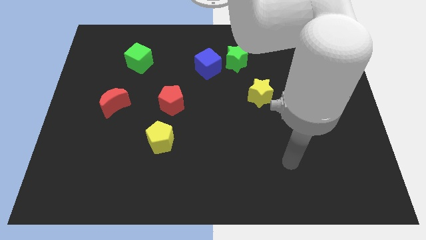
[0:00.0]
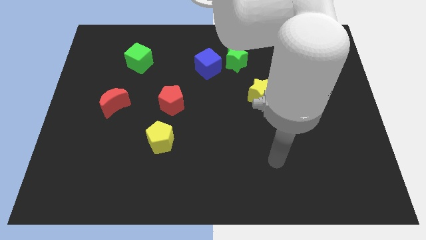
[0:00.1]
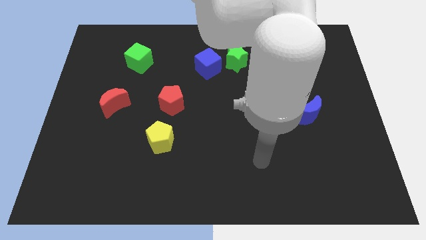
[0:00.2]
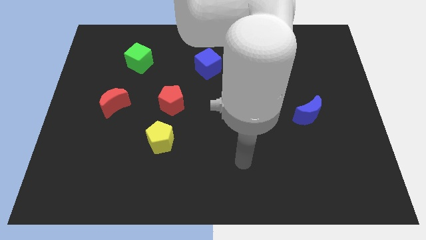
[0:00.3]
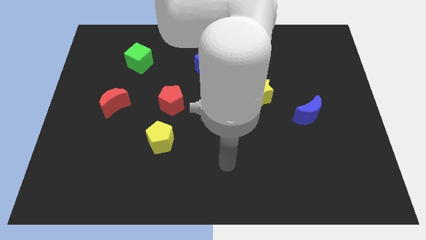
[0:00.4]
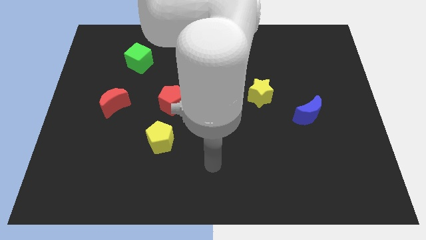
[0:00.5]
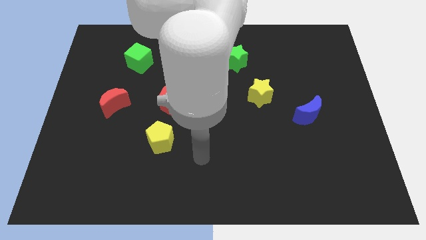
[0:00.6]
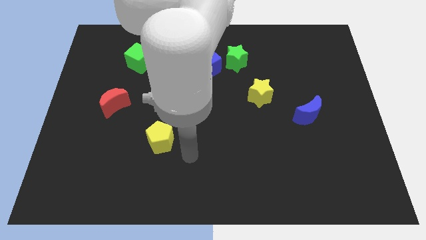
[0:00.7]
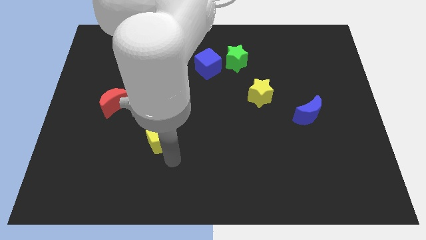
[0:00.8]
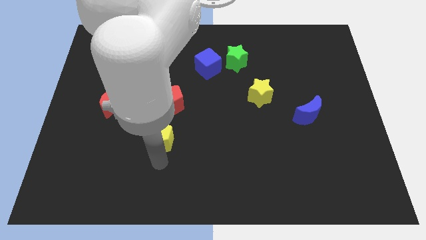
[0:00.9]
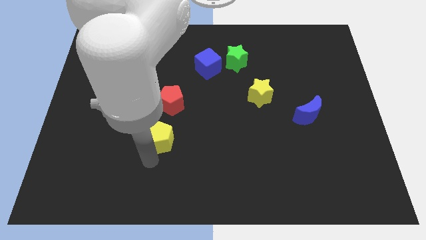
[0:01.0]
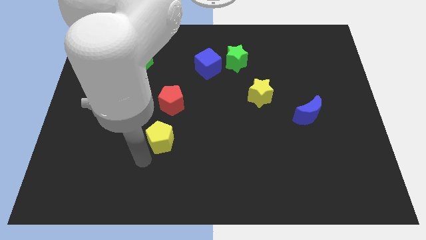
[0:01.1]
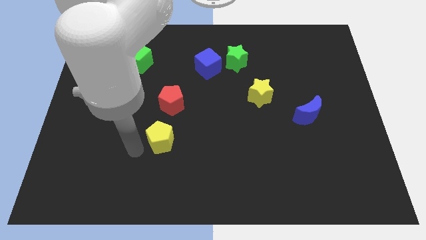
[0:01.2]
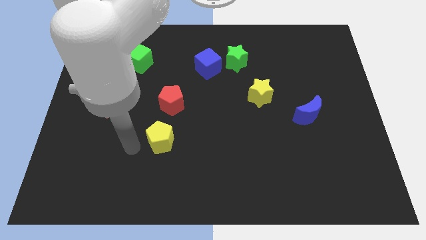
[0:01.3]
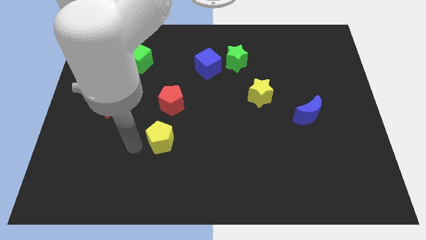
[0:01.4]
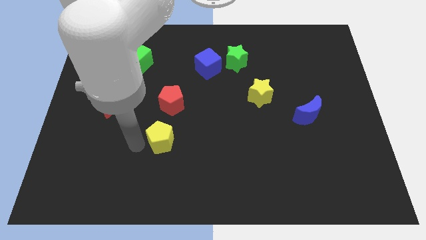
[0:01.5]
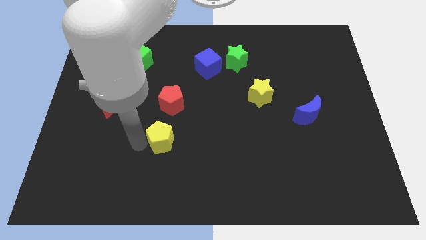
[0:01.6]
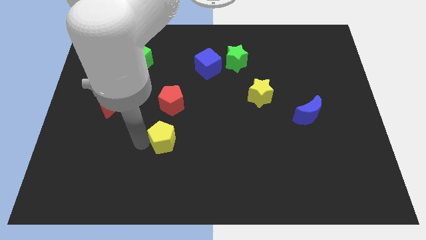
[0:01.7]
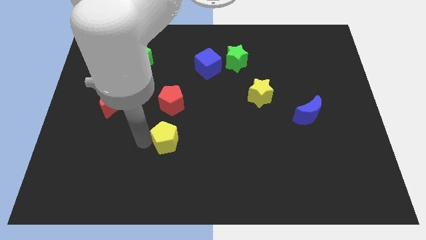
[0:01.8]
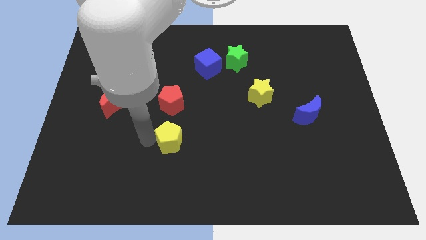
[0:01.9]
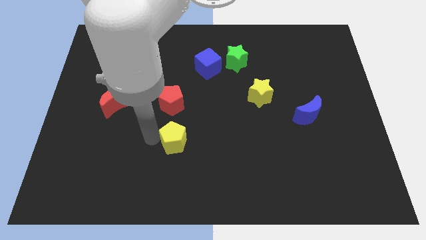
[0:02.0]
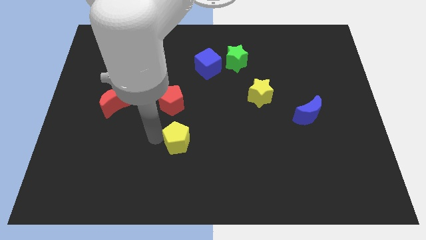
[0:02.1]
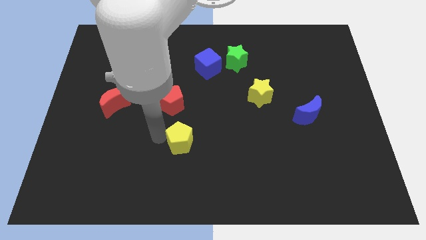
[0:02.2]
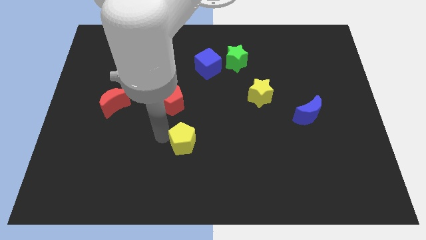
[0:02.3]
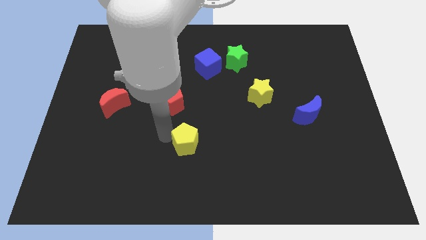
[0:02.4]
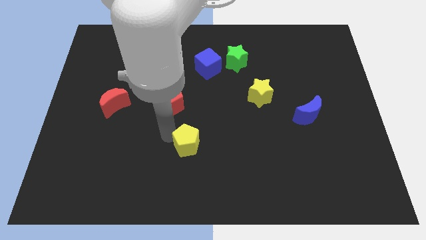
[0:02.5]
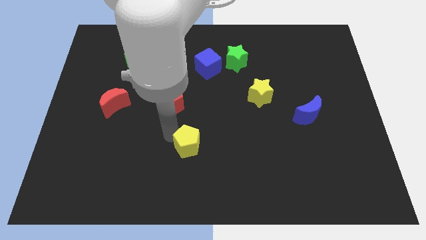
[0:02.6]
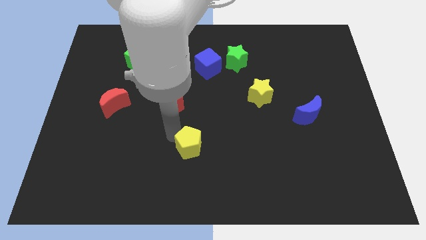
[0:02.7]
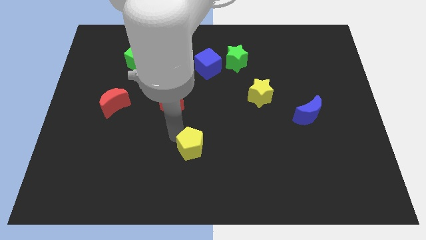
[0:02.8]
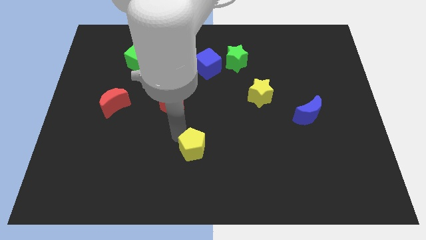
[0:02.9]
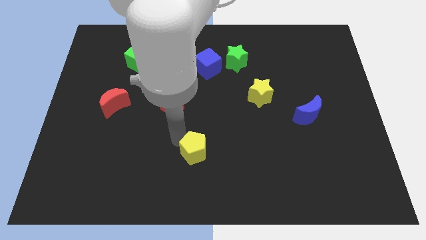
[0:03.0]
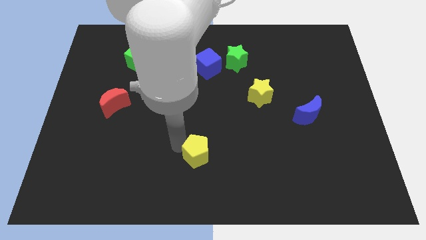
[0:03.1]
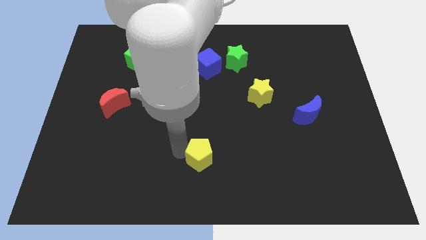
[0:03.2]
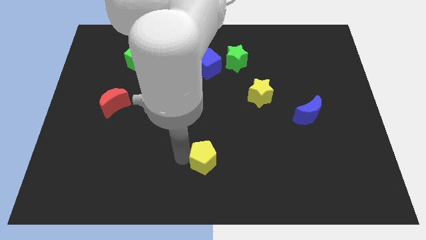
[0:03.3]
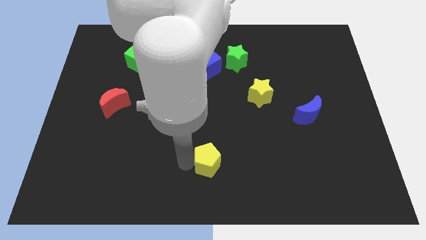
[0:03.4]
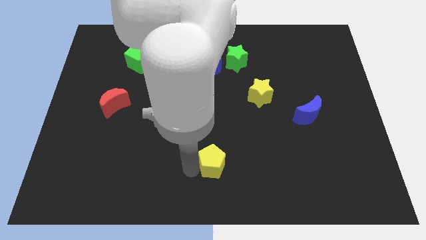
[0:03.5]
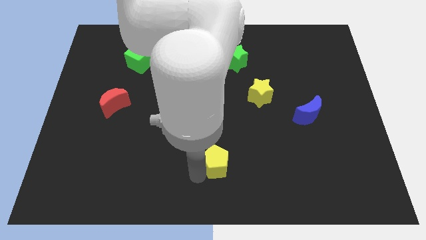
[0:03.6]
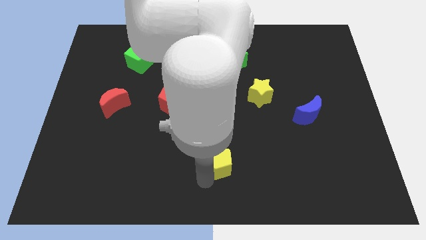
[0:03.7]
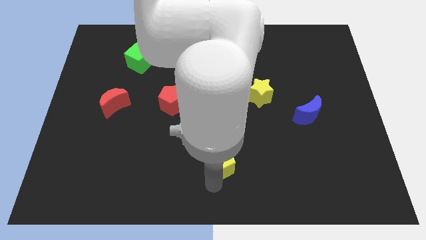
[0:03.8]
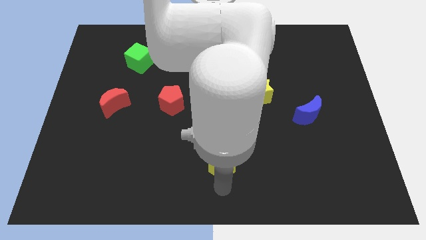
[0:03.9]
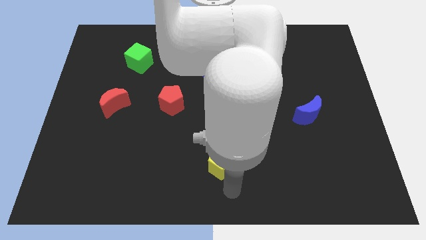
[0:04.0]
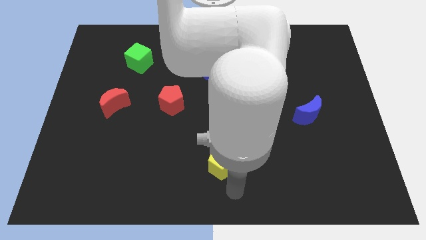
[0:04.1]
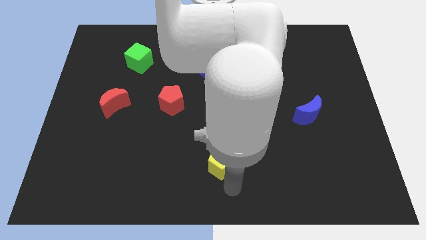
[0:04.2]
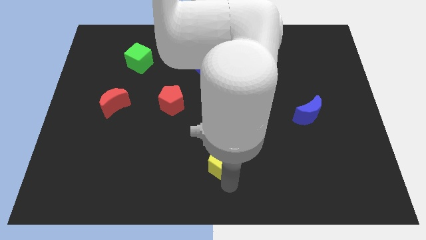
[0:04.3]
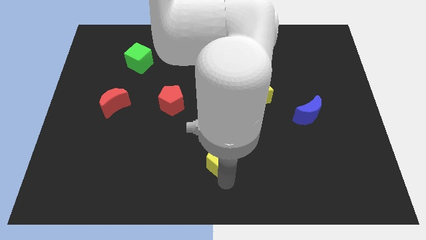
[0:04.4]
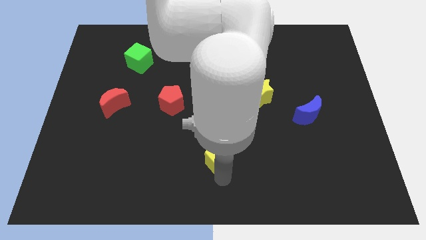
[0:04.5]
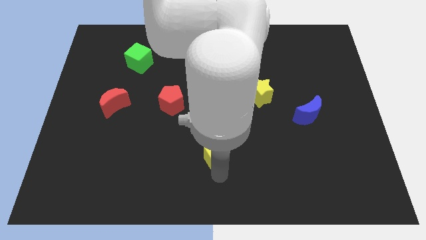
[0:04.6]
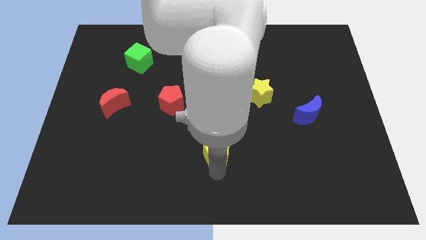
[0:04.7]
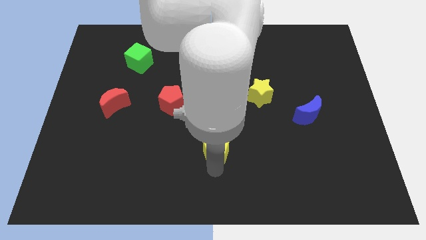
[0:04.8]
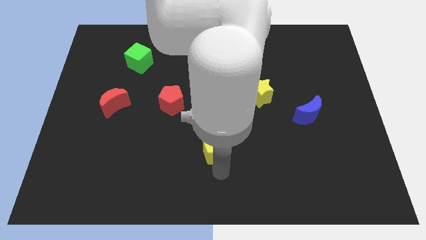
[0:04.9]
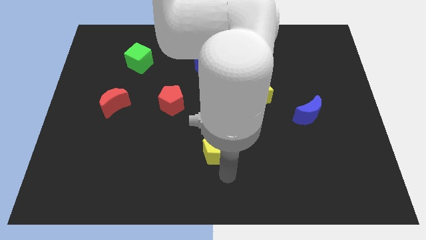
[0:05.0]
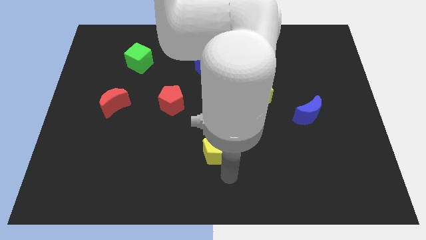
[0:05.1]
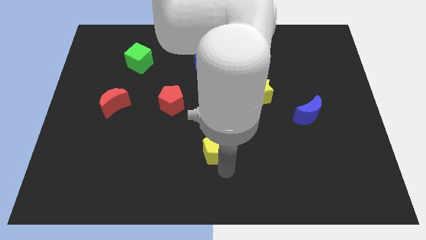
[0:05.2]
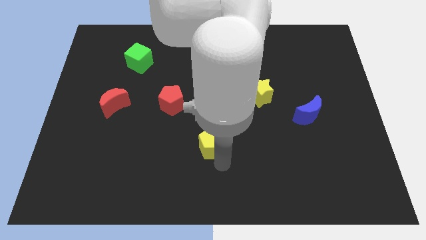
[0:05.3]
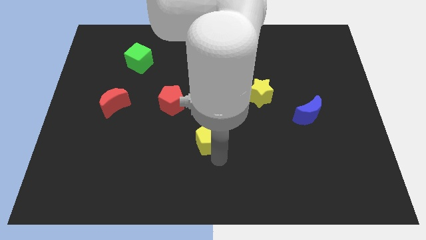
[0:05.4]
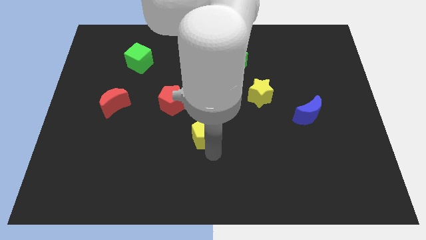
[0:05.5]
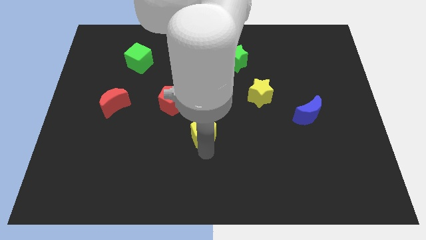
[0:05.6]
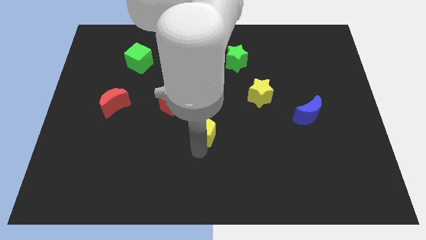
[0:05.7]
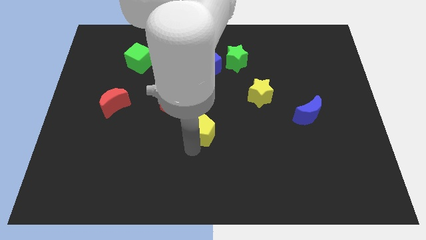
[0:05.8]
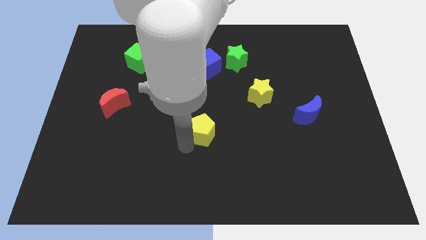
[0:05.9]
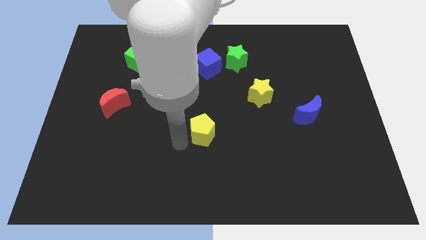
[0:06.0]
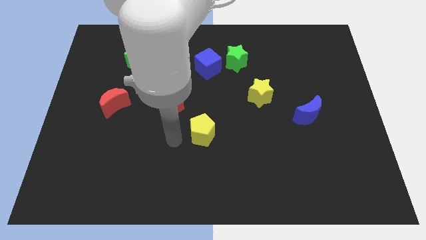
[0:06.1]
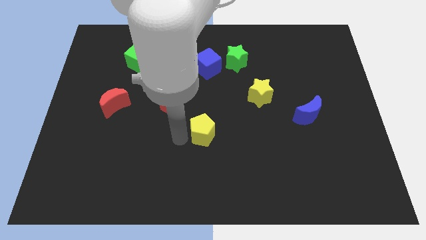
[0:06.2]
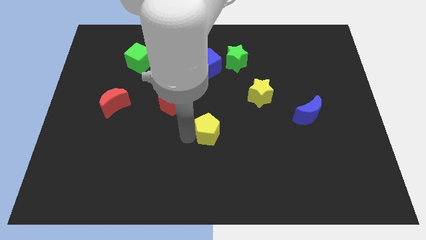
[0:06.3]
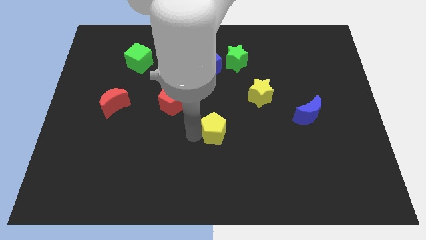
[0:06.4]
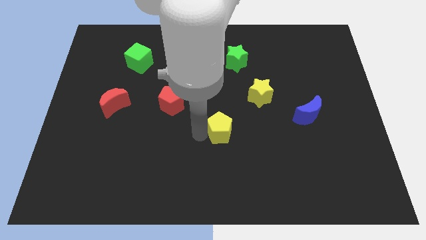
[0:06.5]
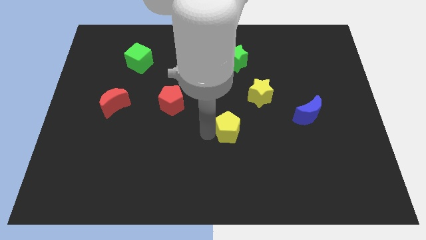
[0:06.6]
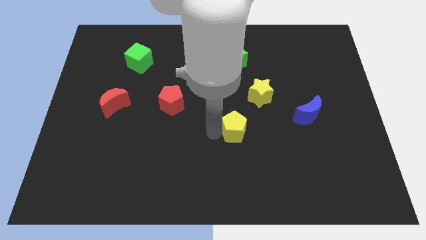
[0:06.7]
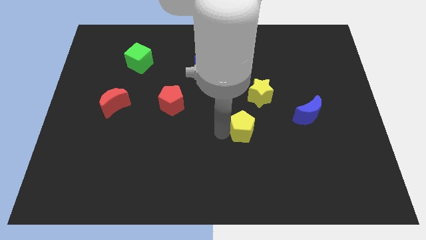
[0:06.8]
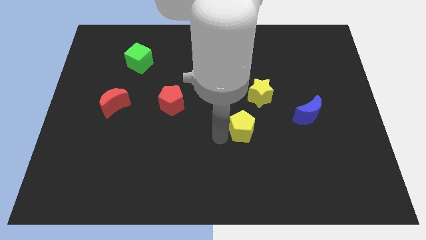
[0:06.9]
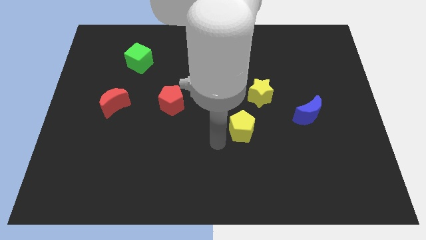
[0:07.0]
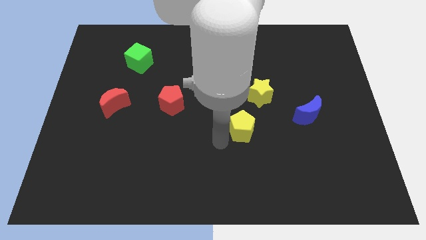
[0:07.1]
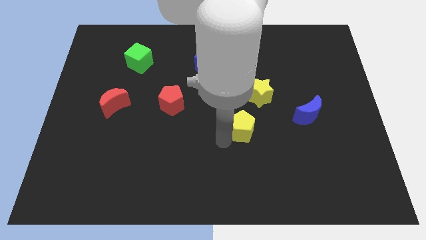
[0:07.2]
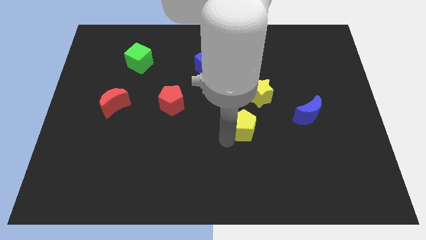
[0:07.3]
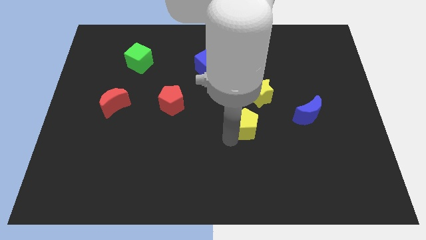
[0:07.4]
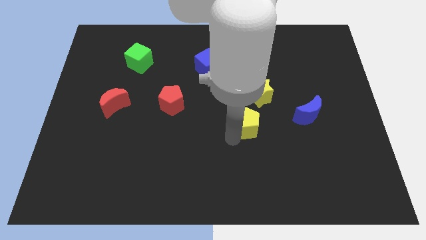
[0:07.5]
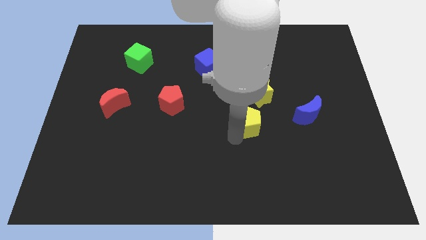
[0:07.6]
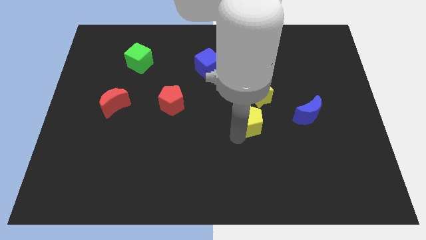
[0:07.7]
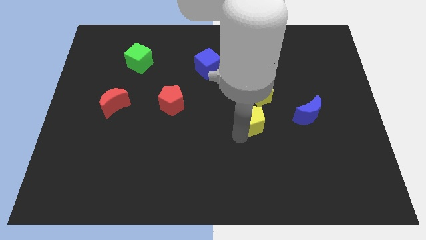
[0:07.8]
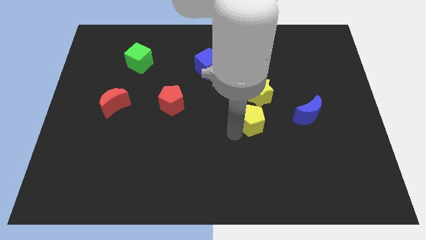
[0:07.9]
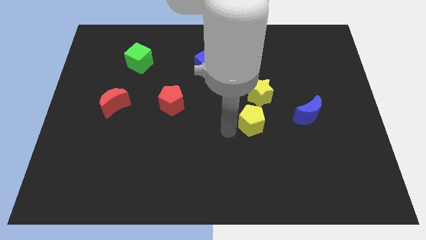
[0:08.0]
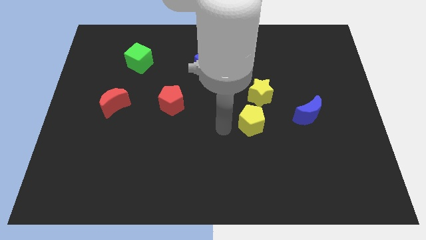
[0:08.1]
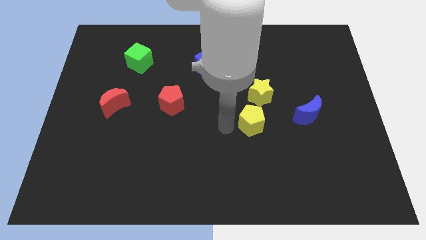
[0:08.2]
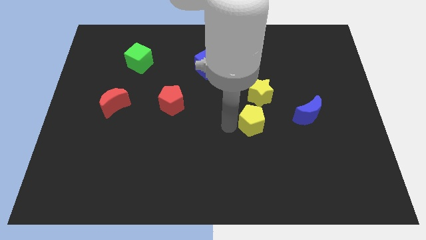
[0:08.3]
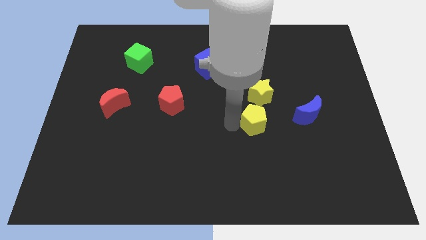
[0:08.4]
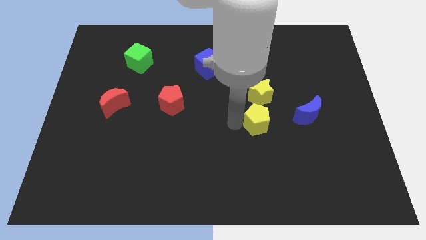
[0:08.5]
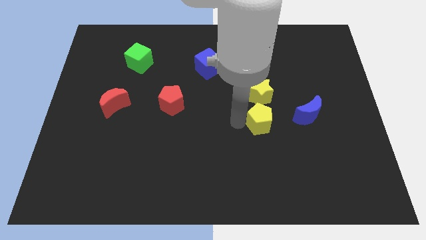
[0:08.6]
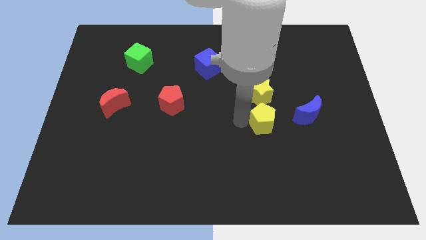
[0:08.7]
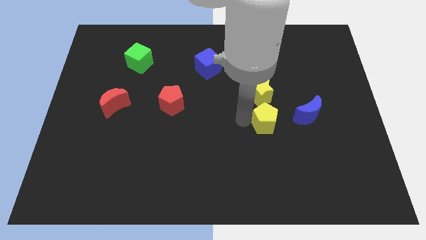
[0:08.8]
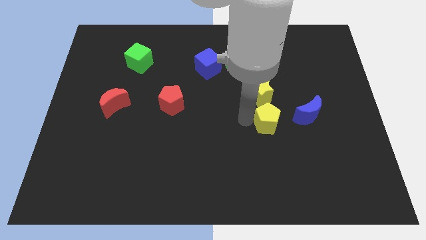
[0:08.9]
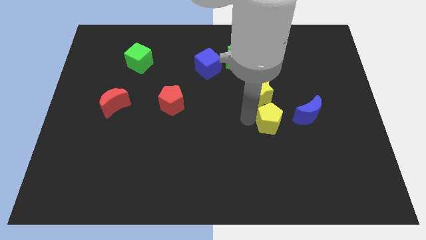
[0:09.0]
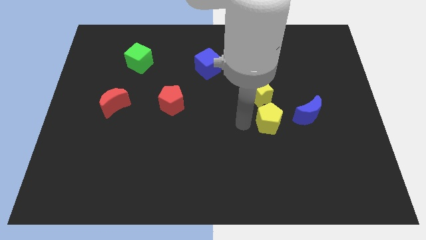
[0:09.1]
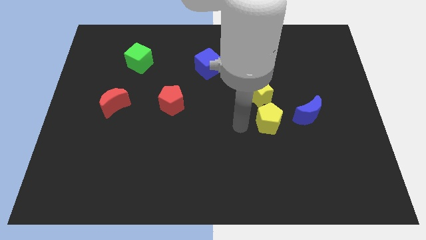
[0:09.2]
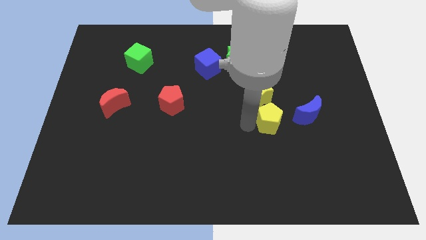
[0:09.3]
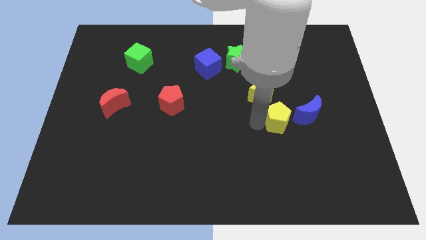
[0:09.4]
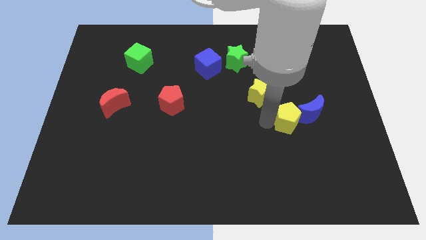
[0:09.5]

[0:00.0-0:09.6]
put the yellow pentagon close to the blue moon
